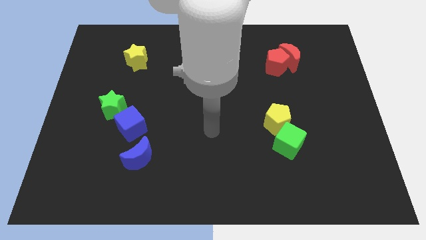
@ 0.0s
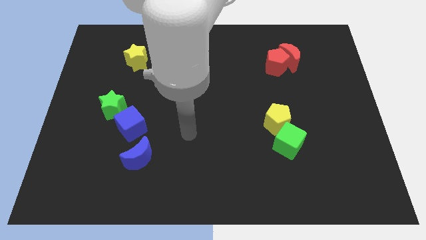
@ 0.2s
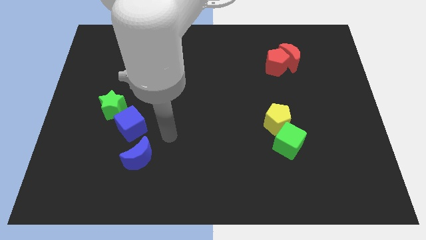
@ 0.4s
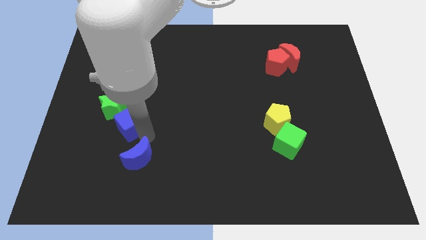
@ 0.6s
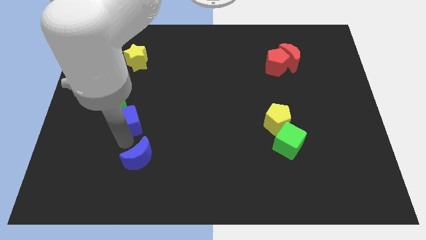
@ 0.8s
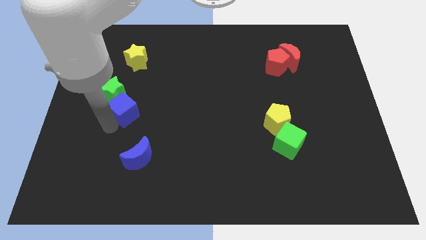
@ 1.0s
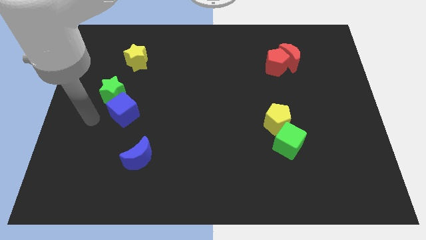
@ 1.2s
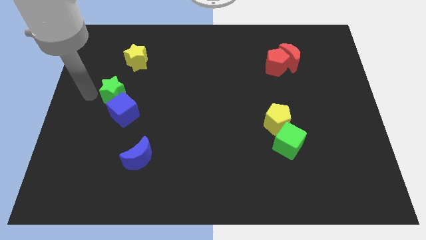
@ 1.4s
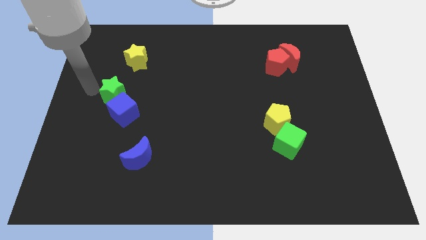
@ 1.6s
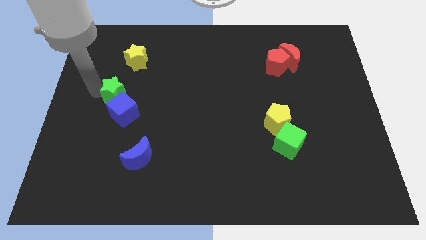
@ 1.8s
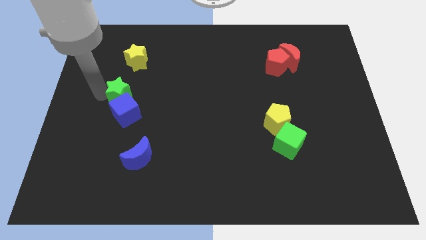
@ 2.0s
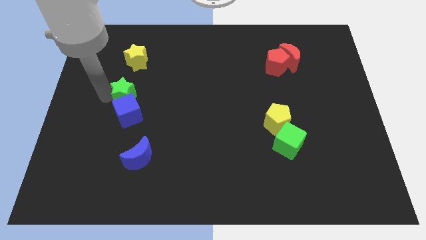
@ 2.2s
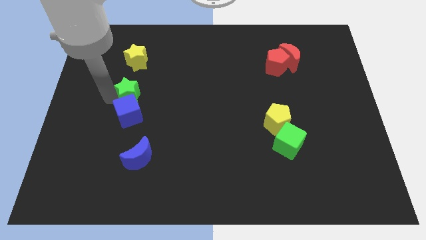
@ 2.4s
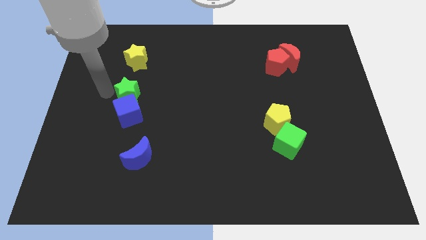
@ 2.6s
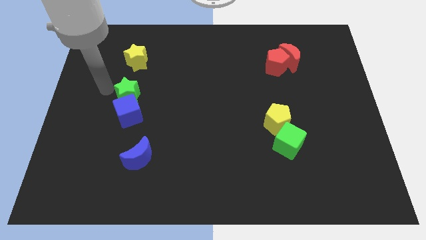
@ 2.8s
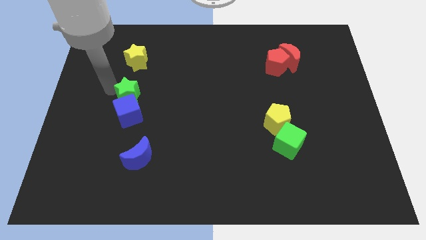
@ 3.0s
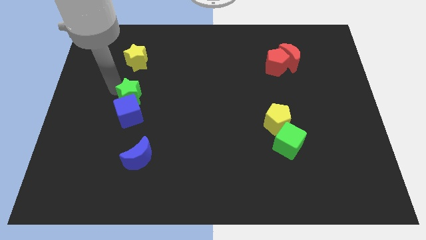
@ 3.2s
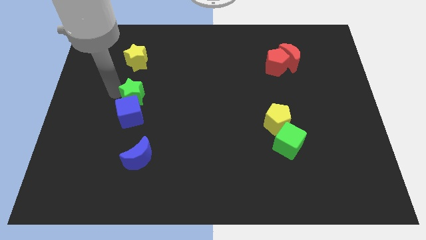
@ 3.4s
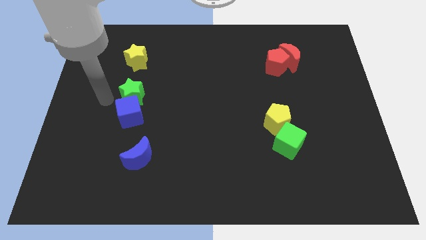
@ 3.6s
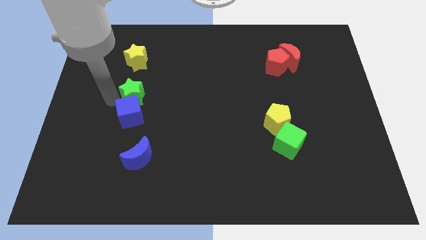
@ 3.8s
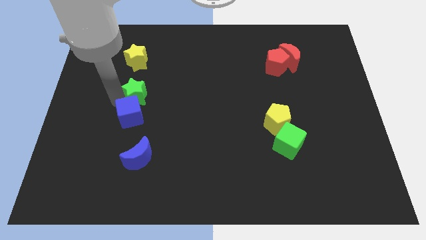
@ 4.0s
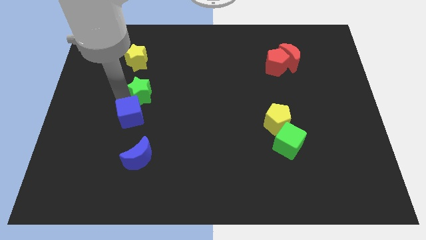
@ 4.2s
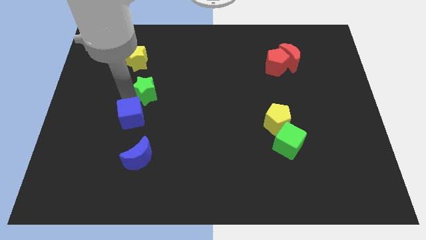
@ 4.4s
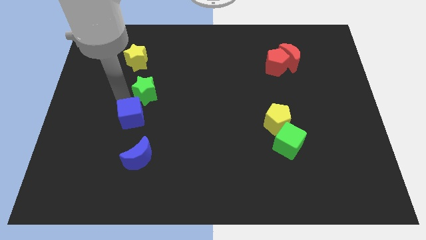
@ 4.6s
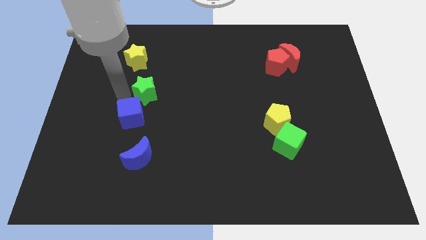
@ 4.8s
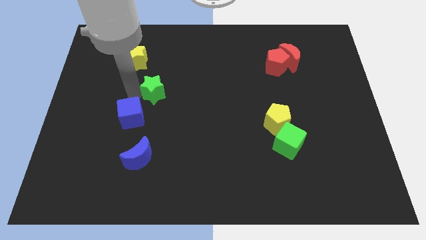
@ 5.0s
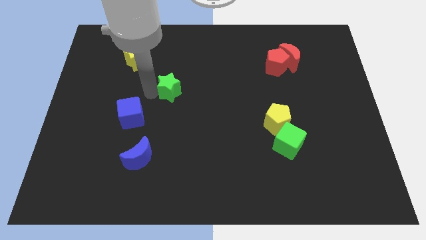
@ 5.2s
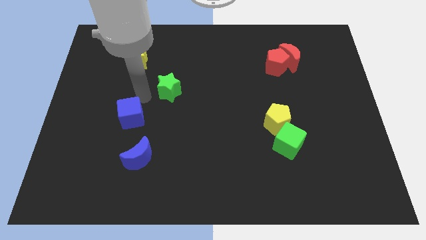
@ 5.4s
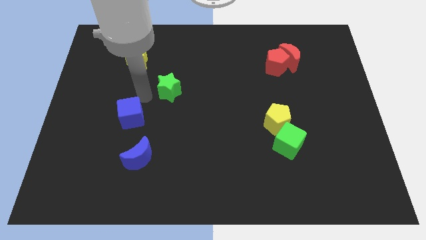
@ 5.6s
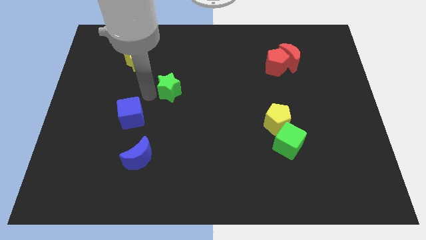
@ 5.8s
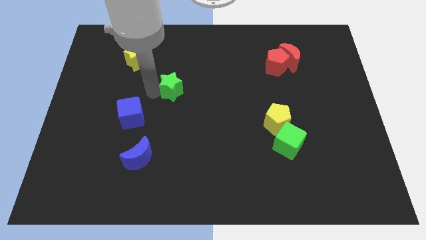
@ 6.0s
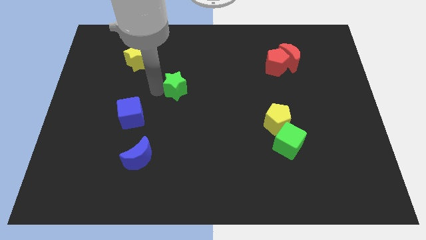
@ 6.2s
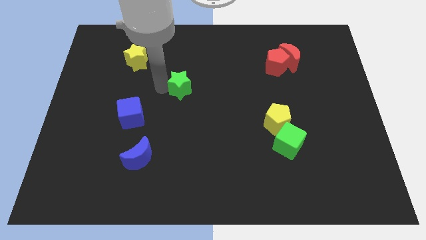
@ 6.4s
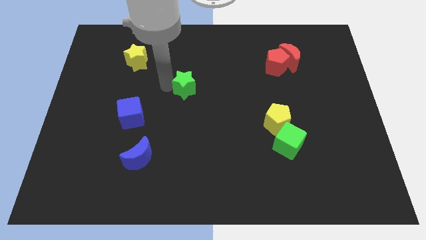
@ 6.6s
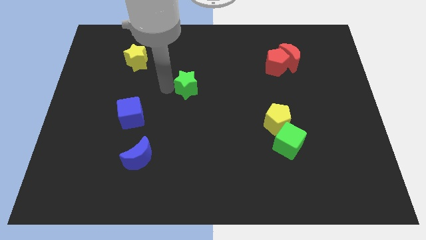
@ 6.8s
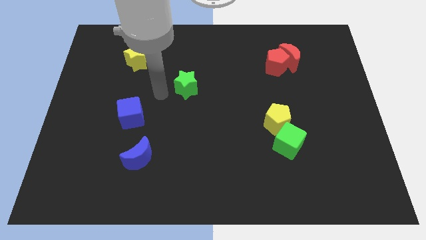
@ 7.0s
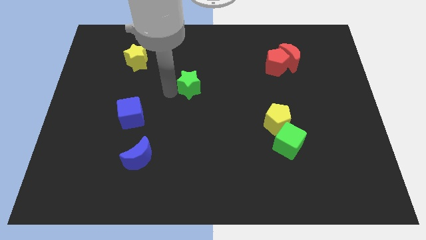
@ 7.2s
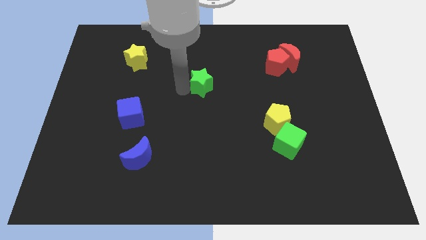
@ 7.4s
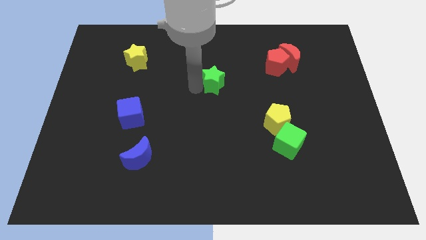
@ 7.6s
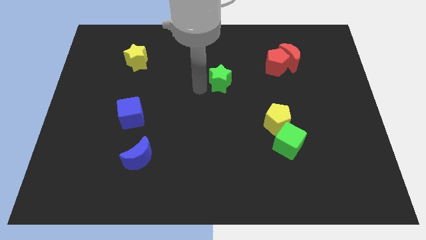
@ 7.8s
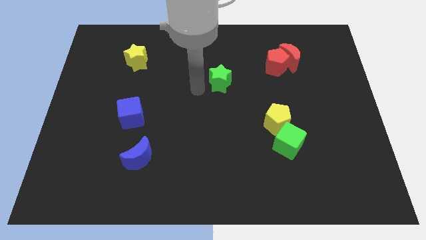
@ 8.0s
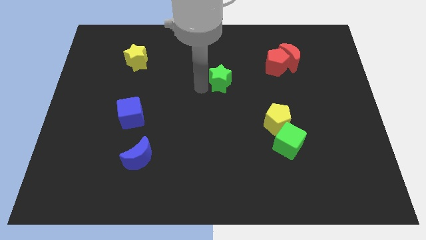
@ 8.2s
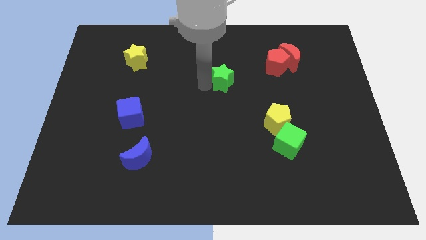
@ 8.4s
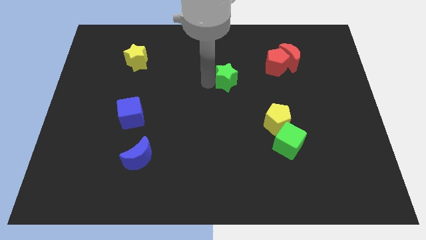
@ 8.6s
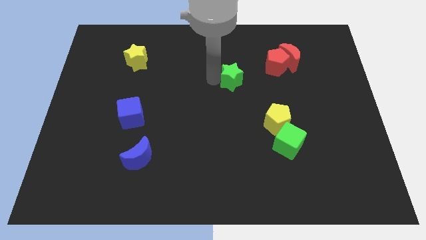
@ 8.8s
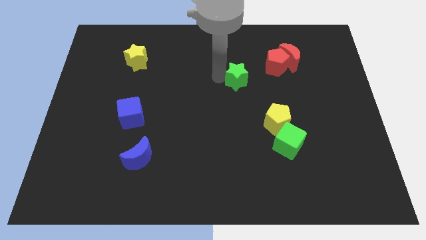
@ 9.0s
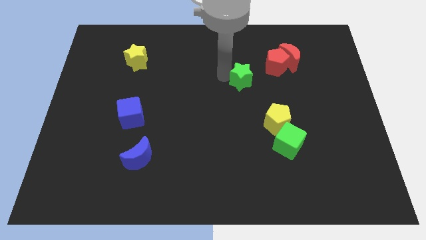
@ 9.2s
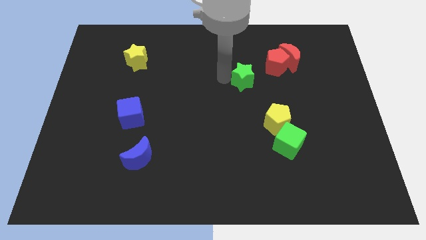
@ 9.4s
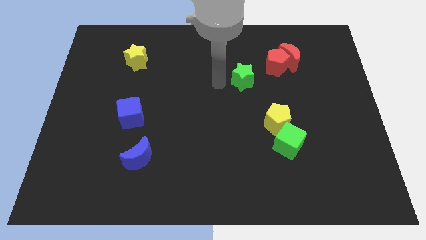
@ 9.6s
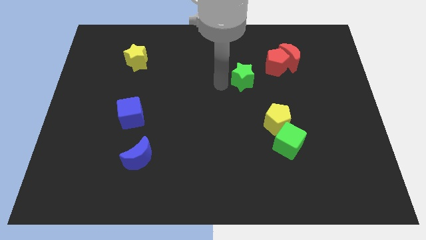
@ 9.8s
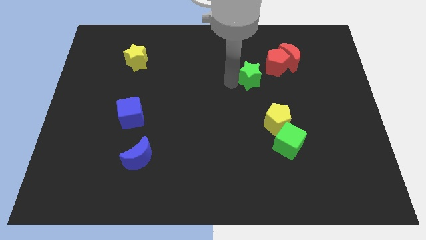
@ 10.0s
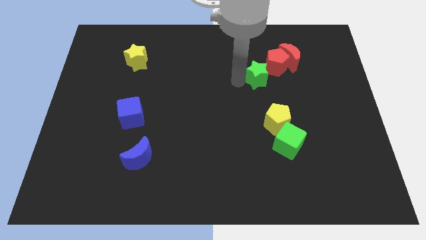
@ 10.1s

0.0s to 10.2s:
push the green star diagonally down and to the left of the red moon

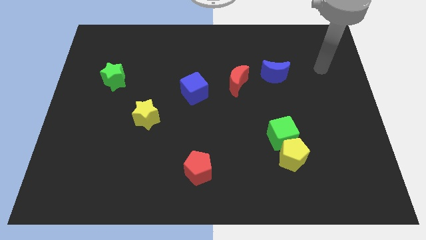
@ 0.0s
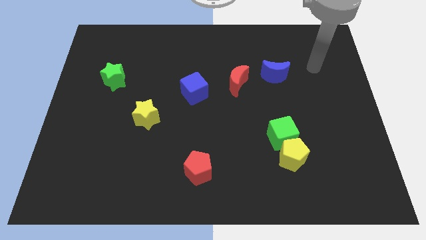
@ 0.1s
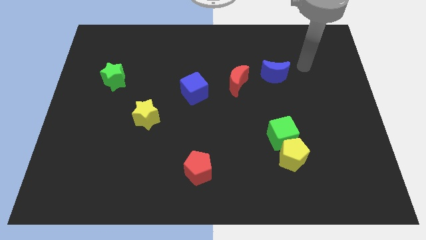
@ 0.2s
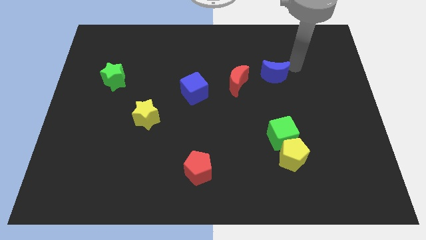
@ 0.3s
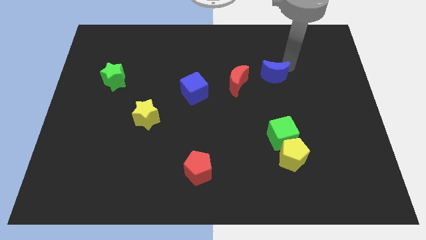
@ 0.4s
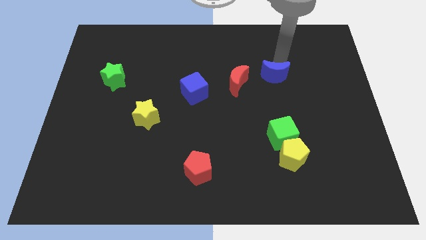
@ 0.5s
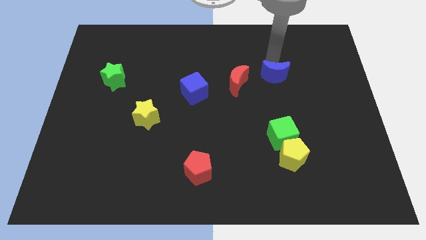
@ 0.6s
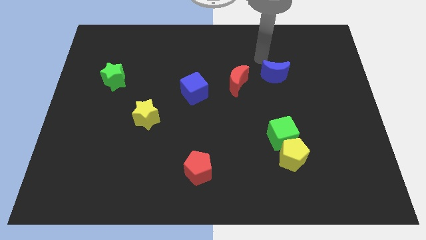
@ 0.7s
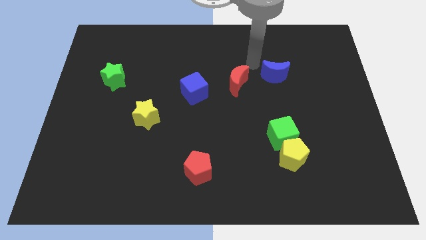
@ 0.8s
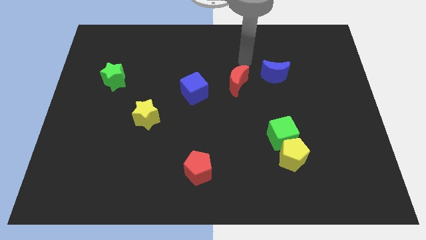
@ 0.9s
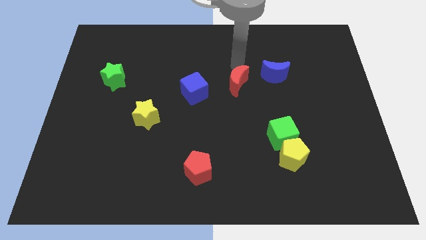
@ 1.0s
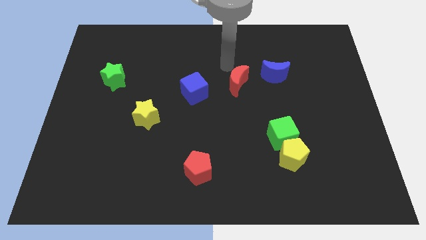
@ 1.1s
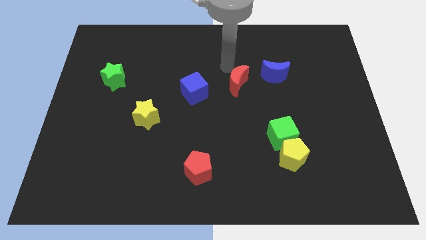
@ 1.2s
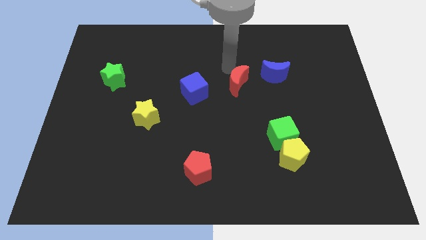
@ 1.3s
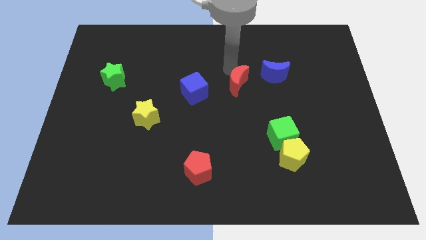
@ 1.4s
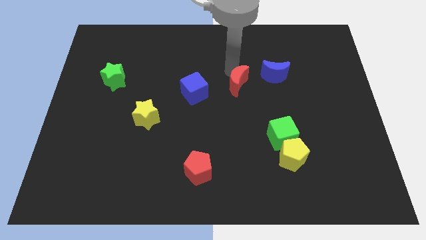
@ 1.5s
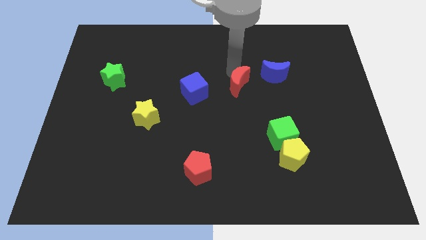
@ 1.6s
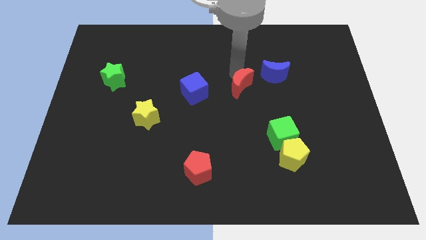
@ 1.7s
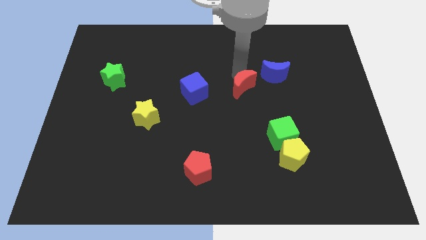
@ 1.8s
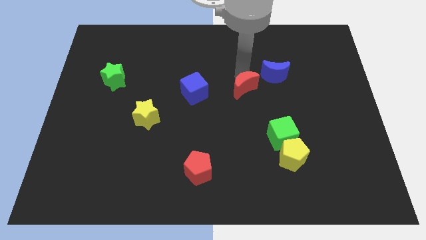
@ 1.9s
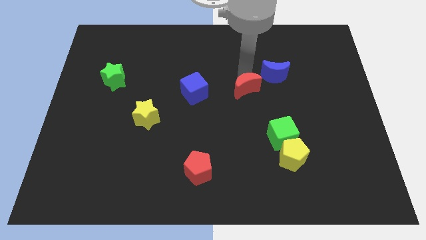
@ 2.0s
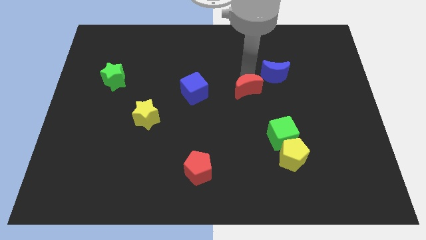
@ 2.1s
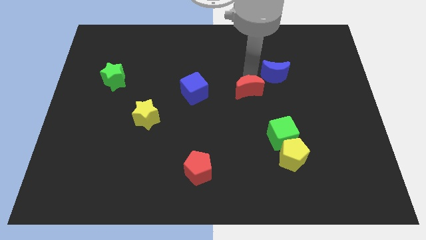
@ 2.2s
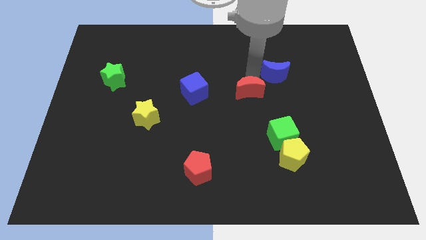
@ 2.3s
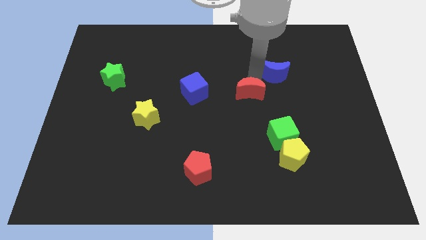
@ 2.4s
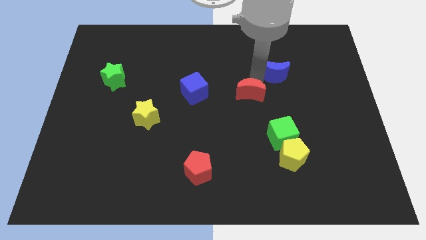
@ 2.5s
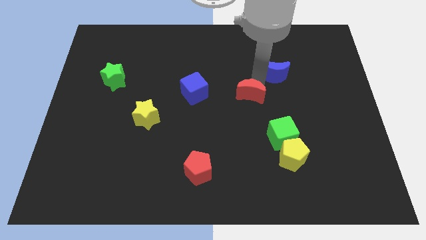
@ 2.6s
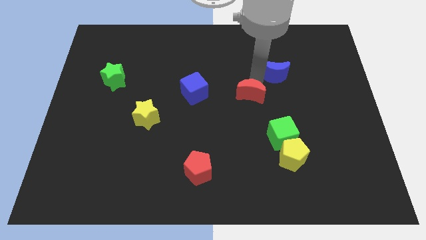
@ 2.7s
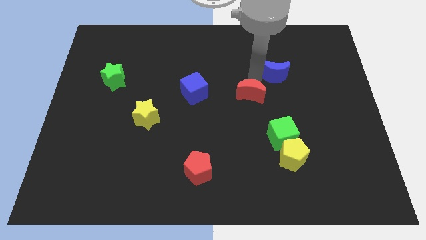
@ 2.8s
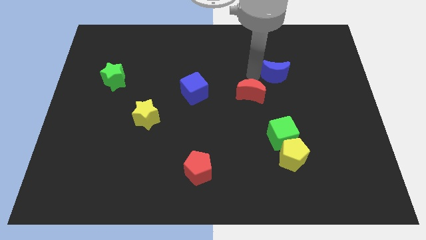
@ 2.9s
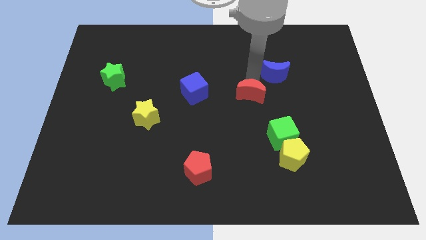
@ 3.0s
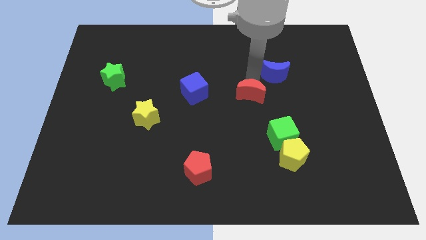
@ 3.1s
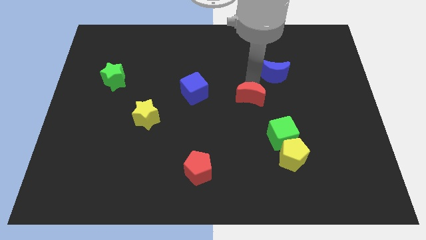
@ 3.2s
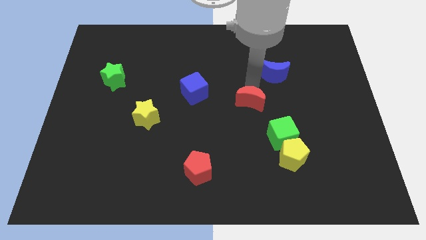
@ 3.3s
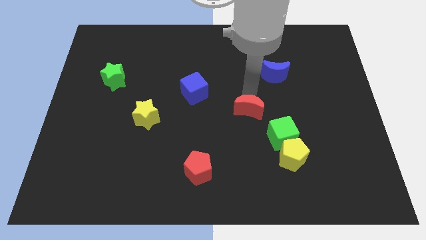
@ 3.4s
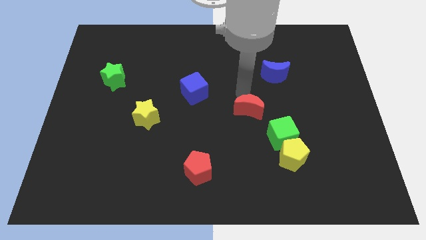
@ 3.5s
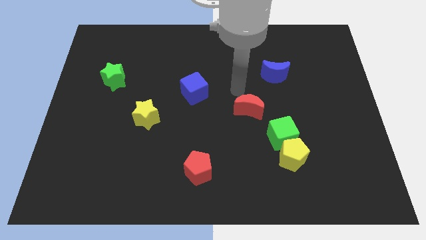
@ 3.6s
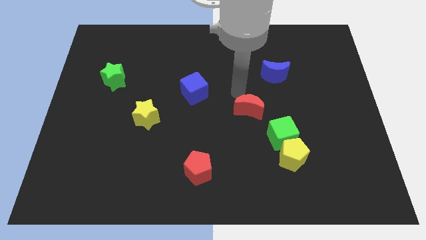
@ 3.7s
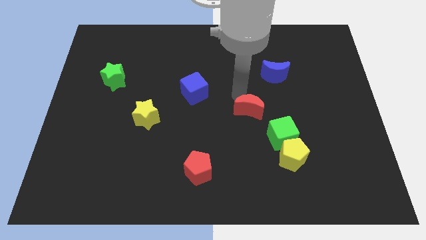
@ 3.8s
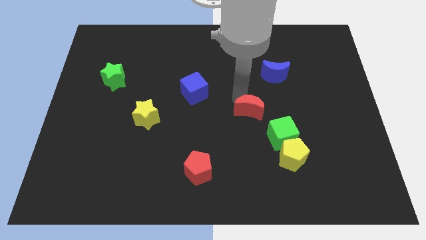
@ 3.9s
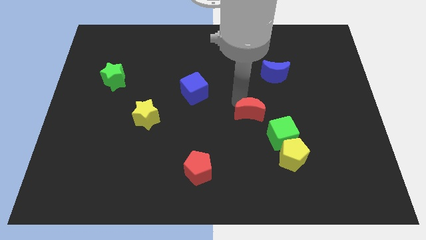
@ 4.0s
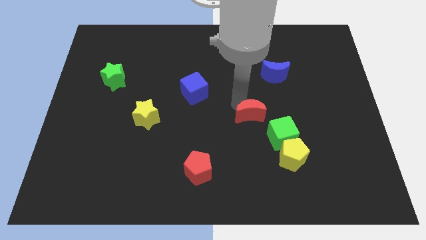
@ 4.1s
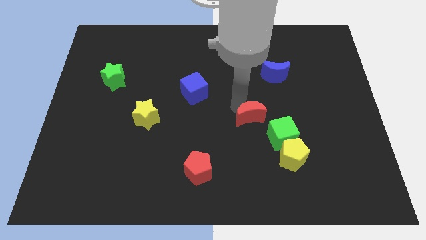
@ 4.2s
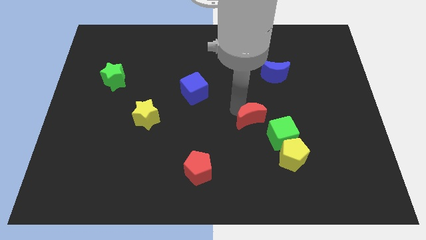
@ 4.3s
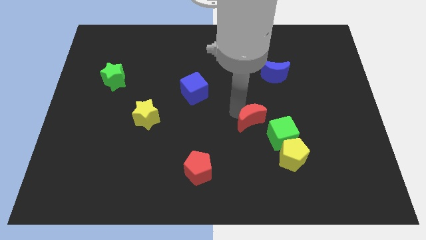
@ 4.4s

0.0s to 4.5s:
put the red moon to the top left of the yellow pentagon
